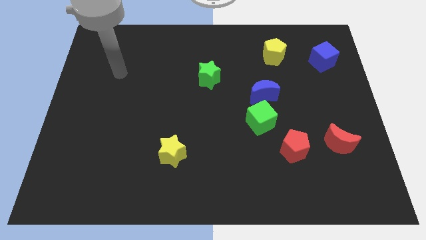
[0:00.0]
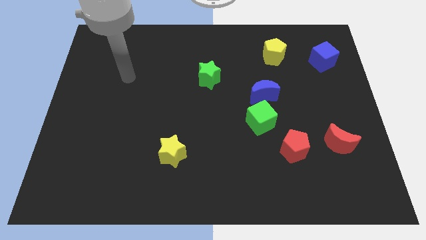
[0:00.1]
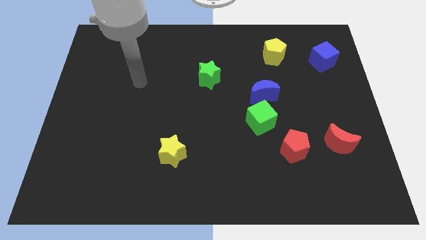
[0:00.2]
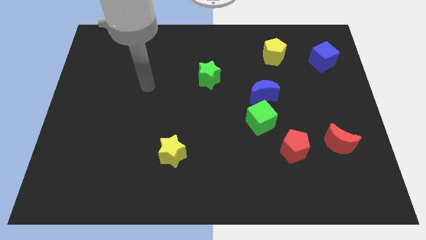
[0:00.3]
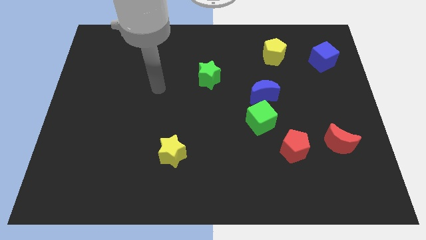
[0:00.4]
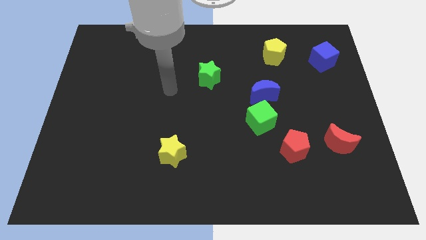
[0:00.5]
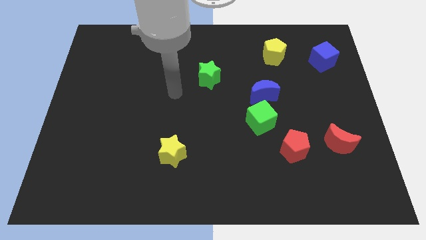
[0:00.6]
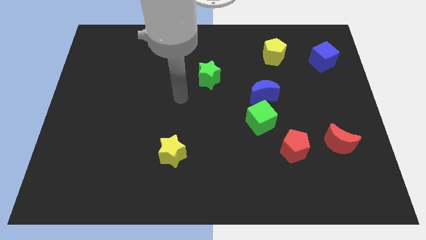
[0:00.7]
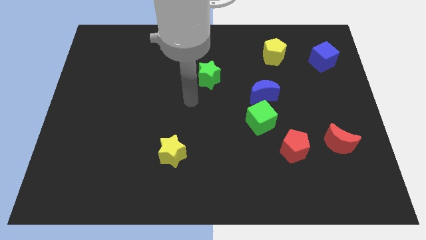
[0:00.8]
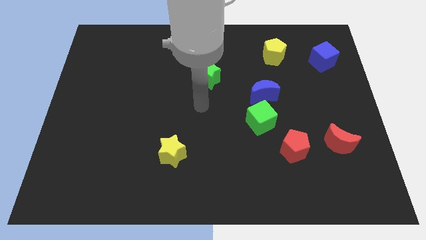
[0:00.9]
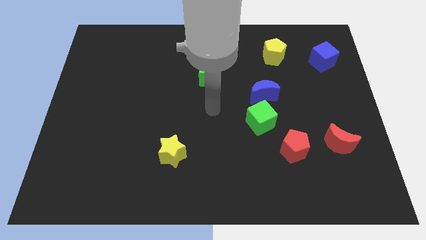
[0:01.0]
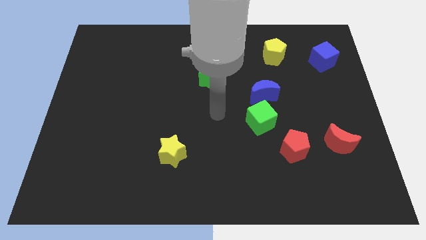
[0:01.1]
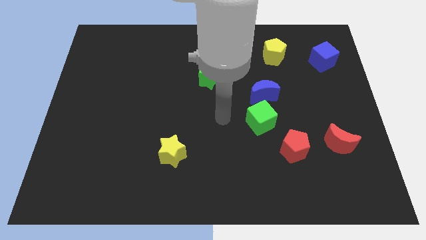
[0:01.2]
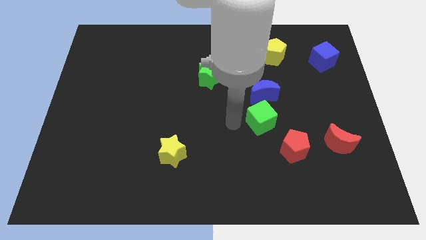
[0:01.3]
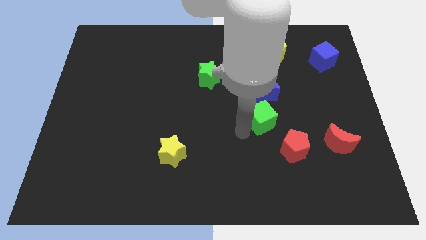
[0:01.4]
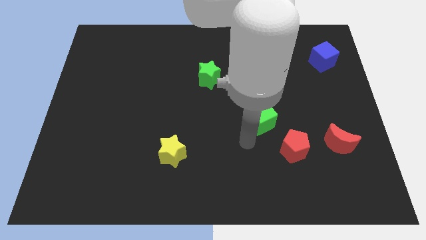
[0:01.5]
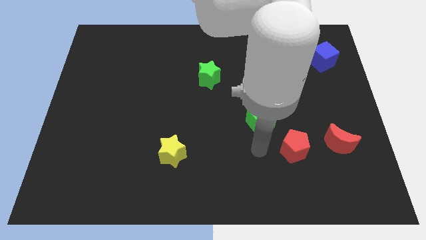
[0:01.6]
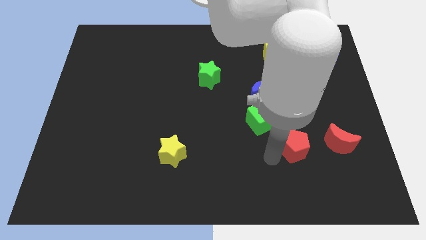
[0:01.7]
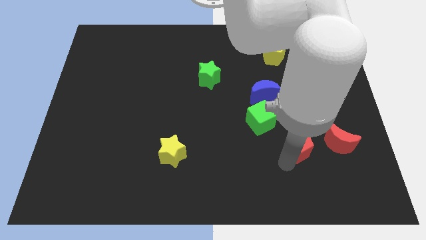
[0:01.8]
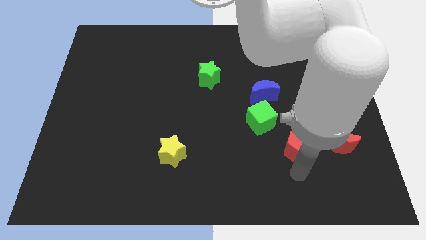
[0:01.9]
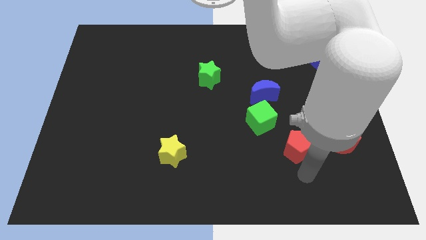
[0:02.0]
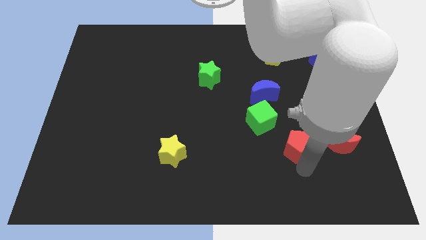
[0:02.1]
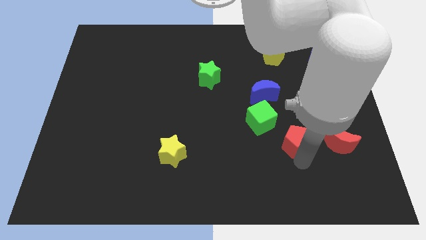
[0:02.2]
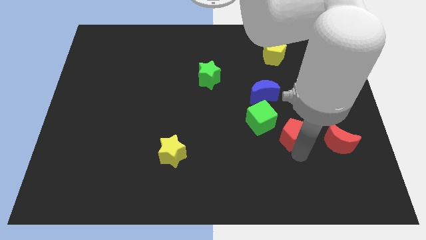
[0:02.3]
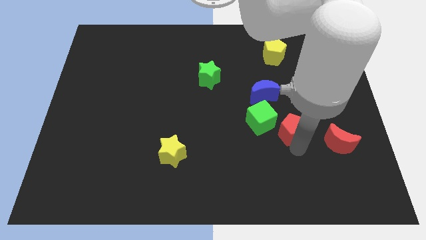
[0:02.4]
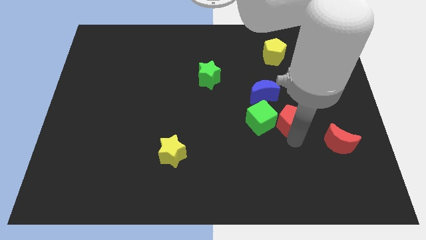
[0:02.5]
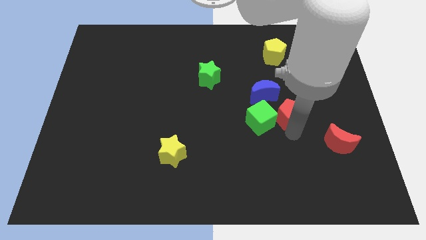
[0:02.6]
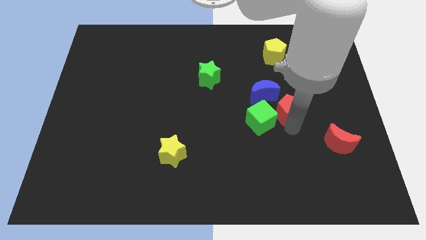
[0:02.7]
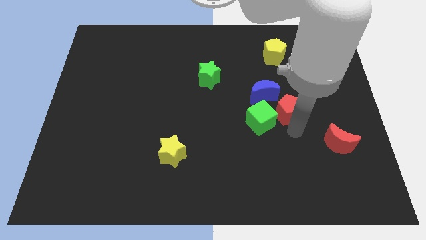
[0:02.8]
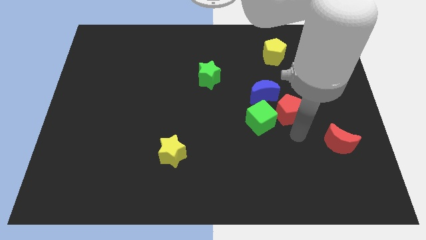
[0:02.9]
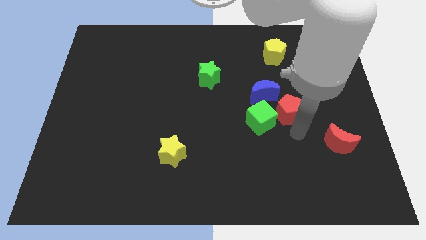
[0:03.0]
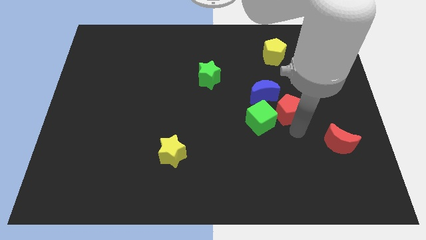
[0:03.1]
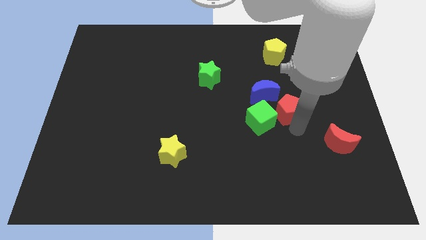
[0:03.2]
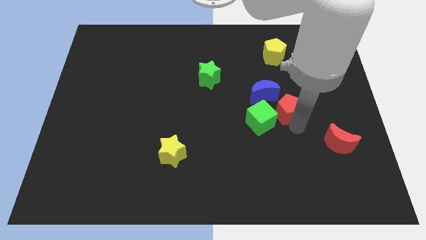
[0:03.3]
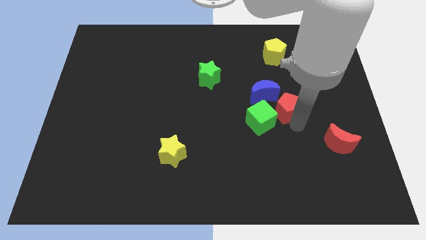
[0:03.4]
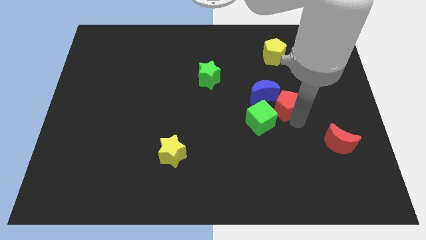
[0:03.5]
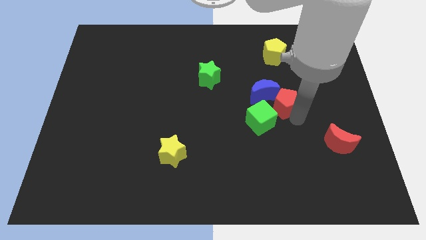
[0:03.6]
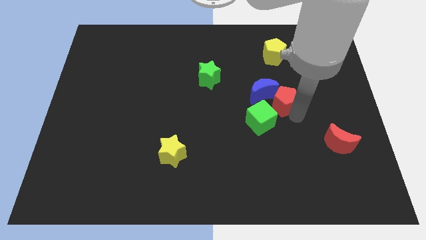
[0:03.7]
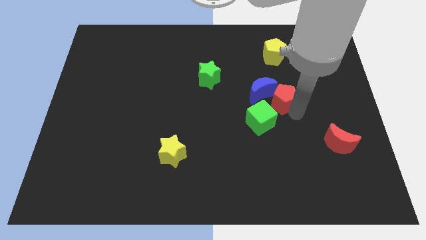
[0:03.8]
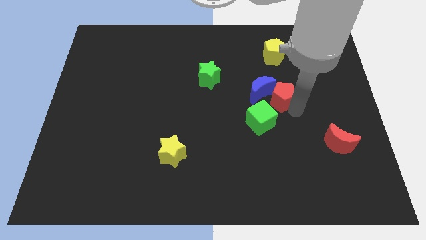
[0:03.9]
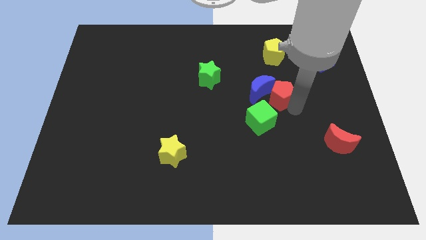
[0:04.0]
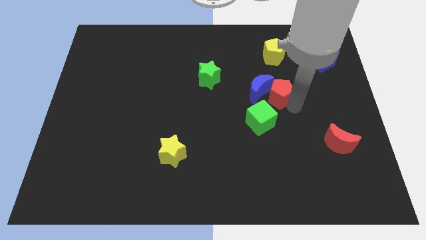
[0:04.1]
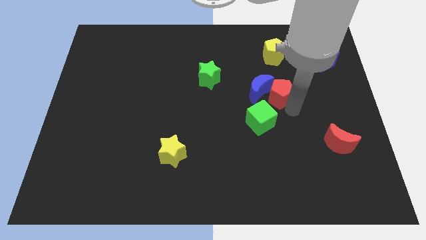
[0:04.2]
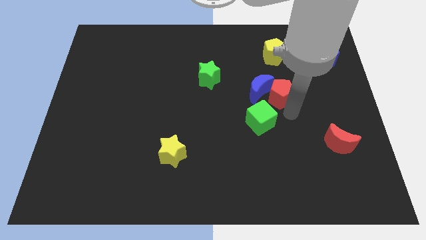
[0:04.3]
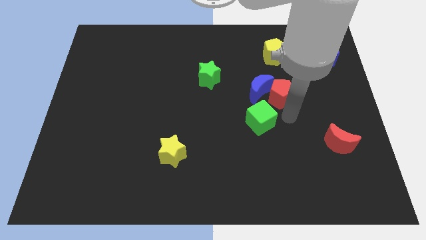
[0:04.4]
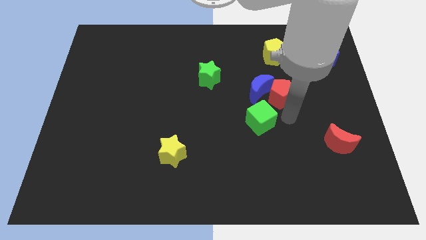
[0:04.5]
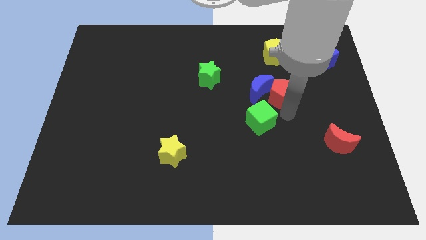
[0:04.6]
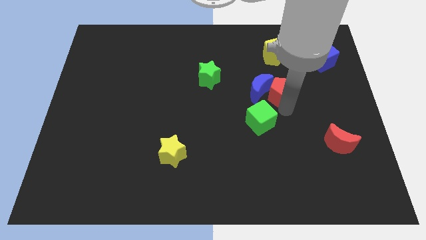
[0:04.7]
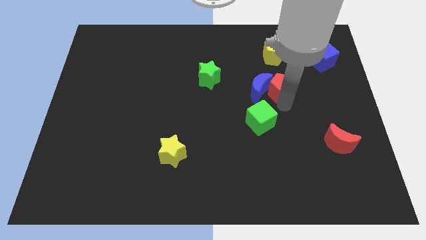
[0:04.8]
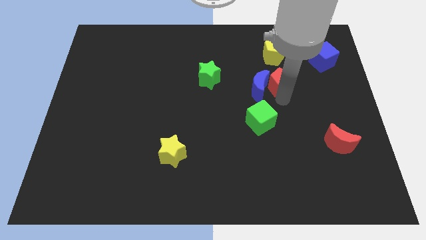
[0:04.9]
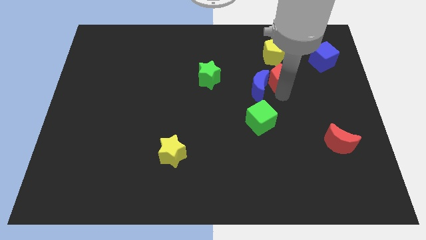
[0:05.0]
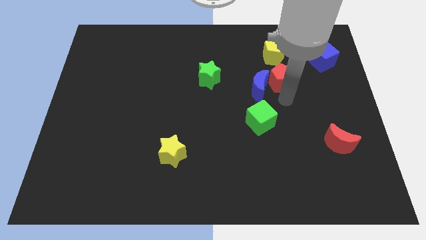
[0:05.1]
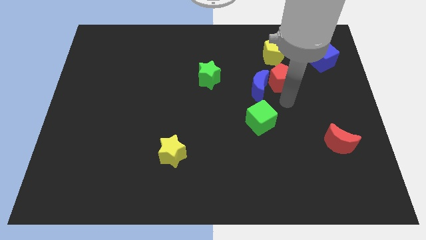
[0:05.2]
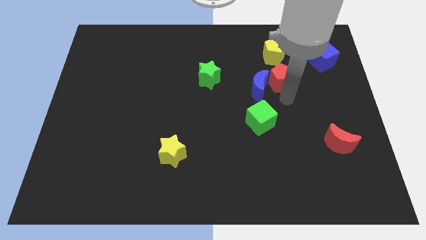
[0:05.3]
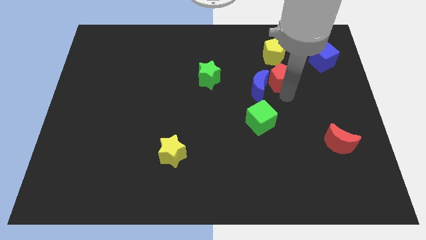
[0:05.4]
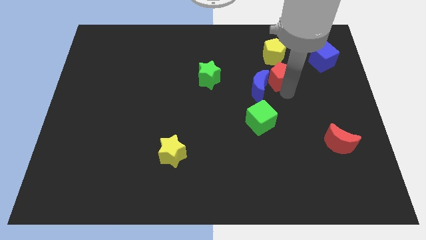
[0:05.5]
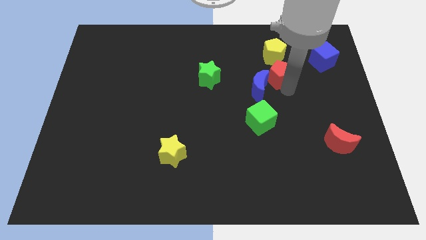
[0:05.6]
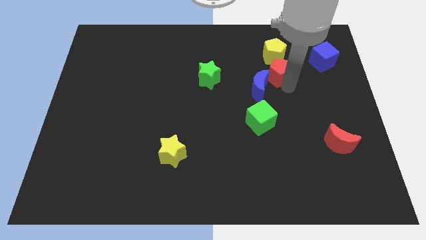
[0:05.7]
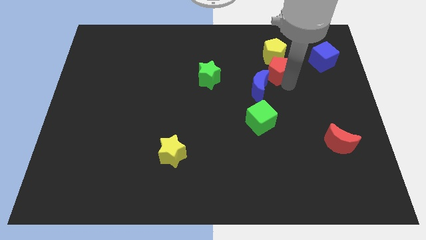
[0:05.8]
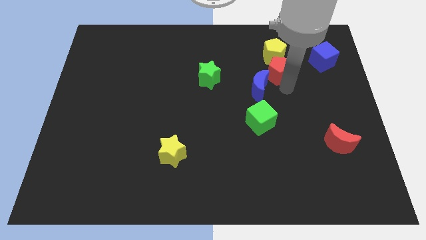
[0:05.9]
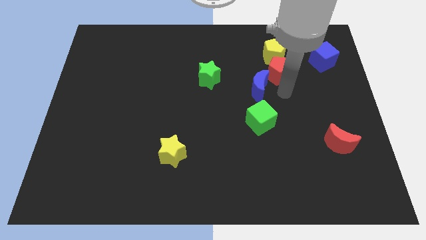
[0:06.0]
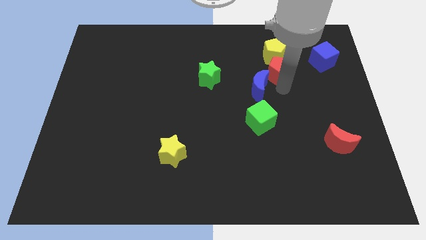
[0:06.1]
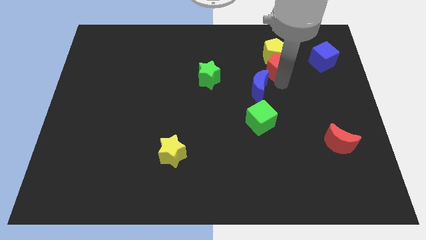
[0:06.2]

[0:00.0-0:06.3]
slide the red pentagon close to the yellow pentagon

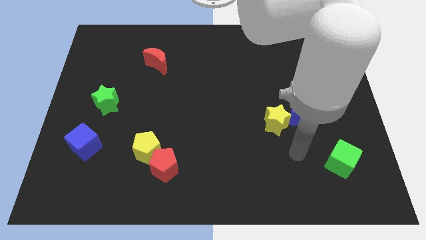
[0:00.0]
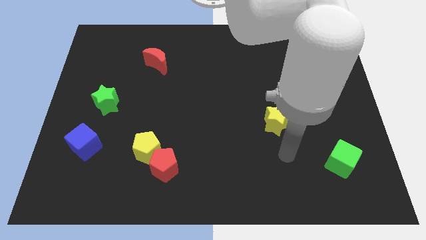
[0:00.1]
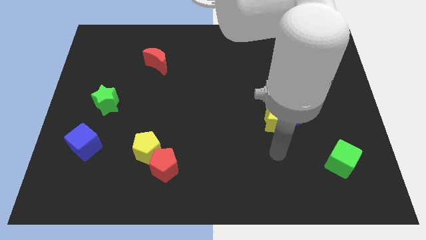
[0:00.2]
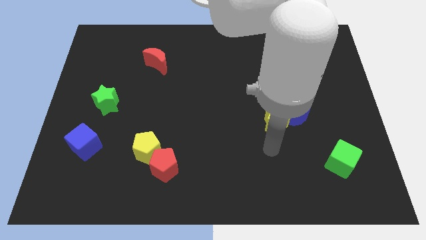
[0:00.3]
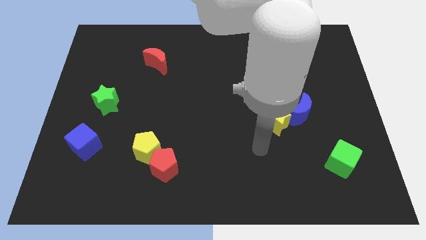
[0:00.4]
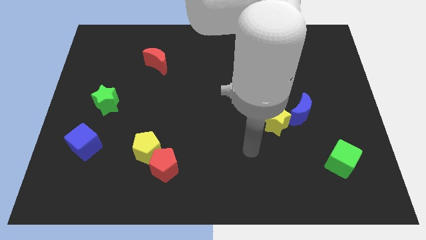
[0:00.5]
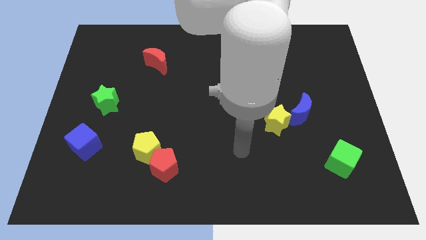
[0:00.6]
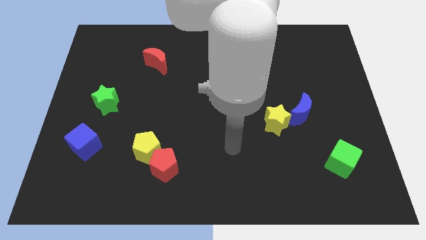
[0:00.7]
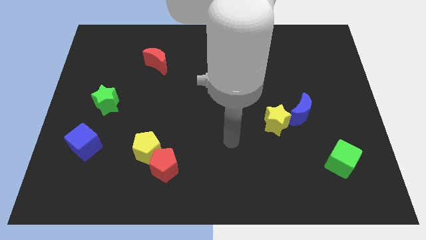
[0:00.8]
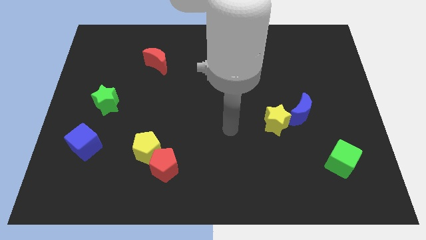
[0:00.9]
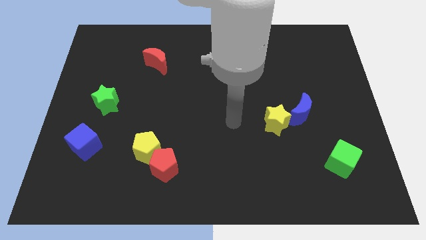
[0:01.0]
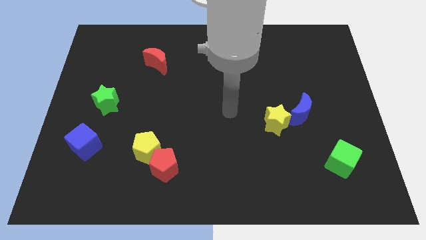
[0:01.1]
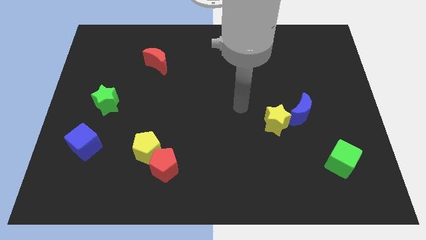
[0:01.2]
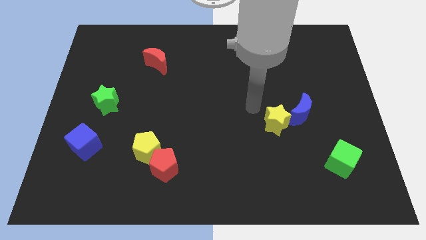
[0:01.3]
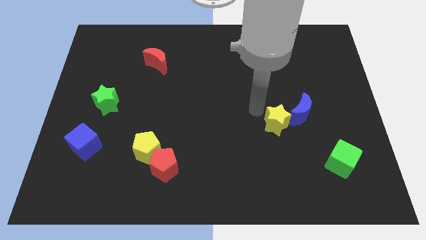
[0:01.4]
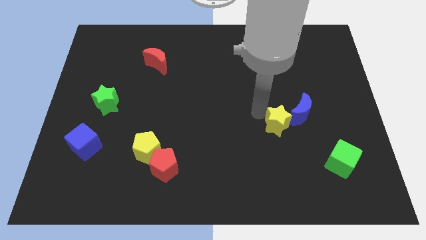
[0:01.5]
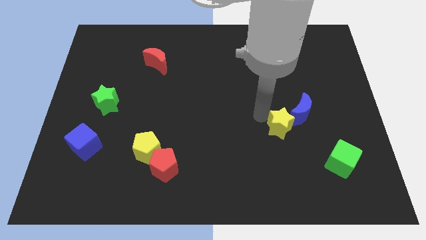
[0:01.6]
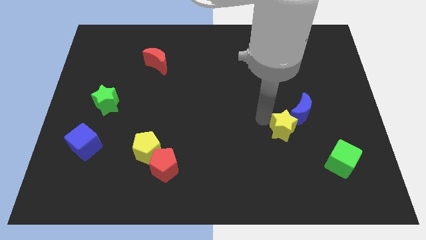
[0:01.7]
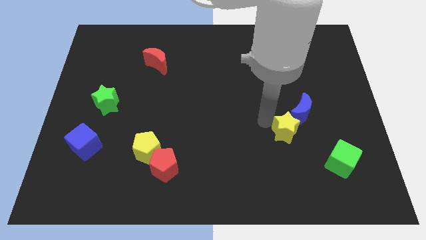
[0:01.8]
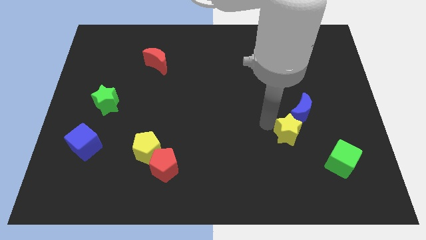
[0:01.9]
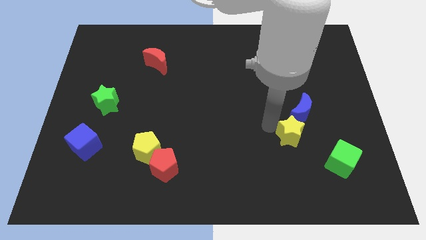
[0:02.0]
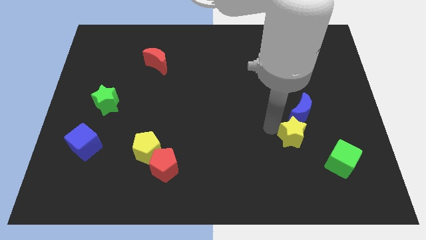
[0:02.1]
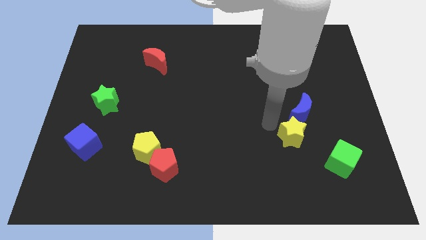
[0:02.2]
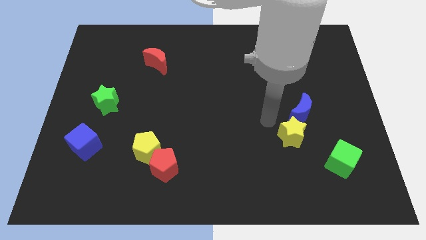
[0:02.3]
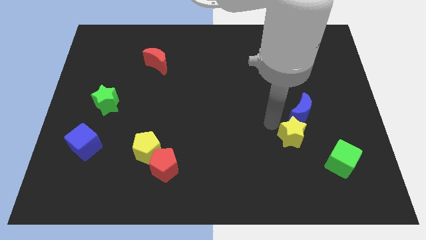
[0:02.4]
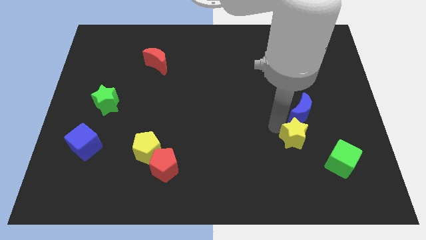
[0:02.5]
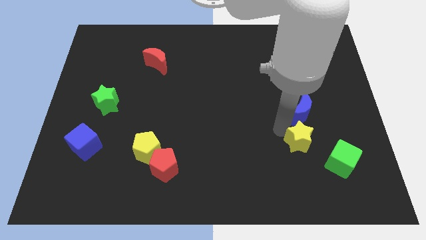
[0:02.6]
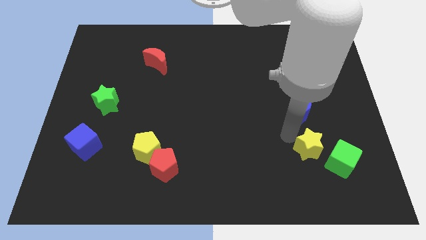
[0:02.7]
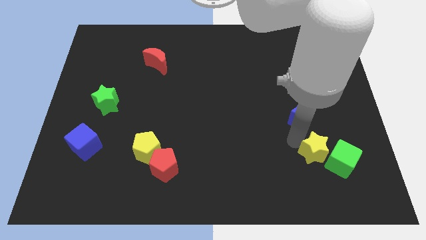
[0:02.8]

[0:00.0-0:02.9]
put the yellow star towards the green cube
